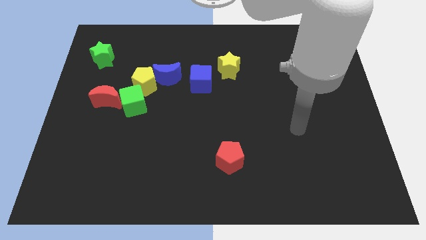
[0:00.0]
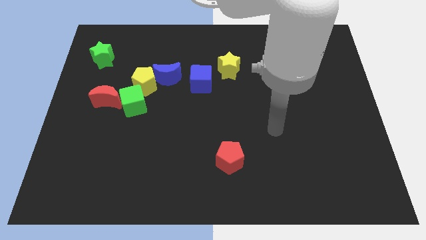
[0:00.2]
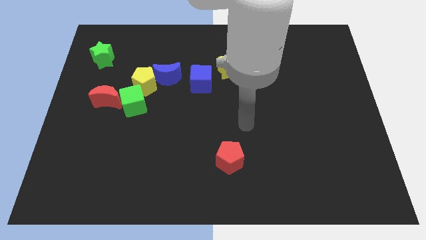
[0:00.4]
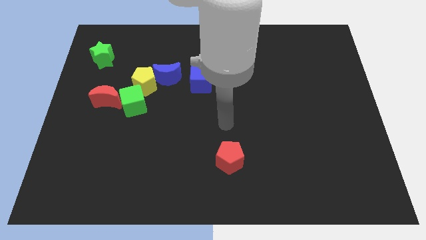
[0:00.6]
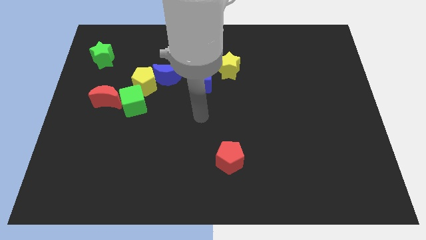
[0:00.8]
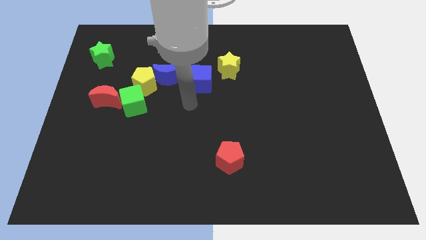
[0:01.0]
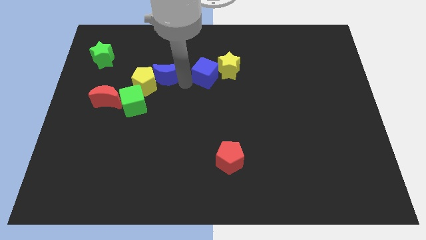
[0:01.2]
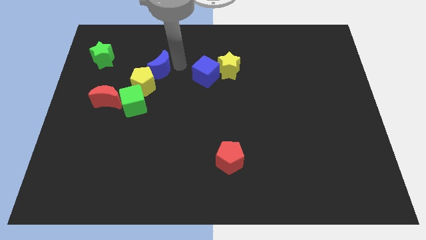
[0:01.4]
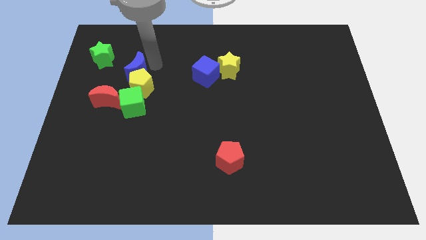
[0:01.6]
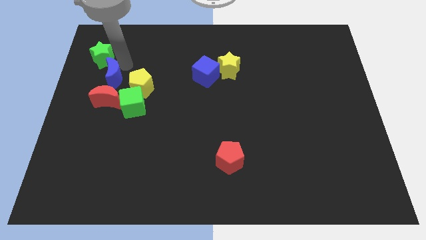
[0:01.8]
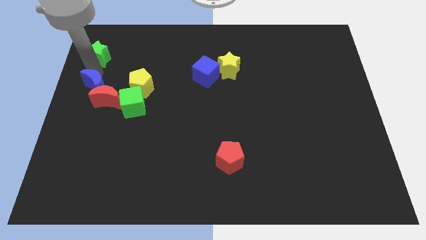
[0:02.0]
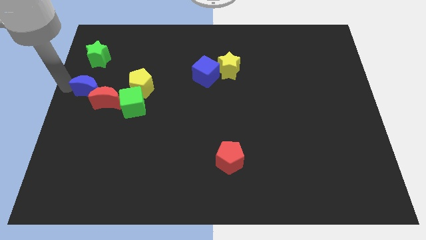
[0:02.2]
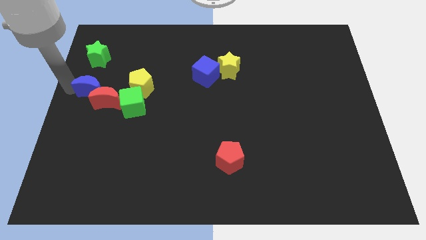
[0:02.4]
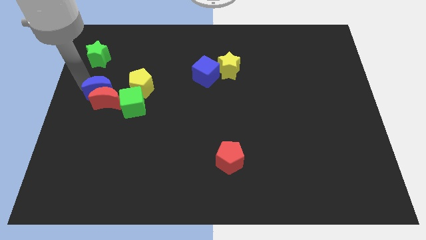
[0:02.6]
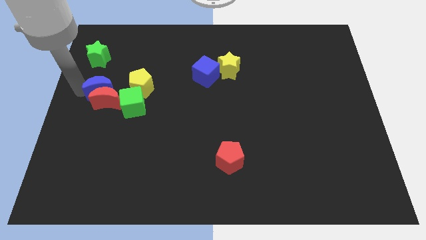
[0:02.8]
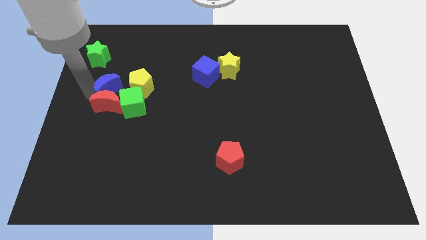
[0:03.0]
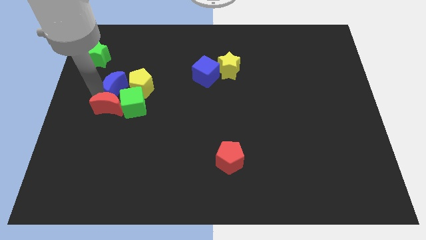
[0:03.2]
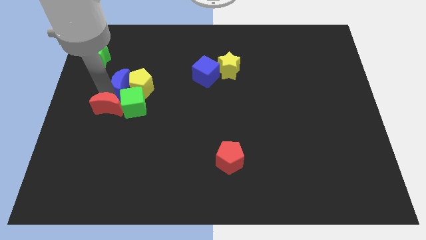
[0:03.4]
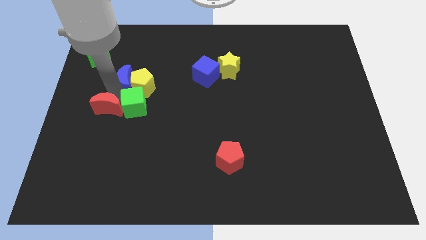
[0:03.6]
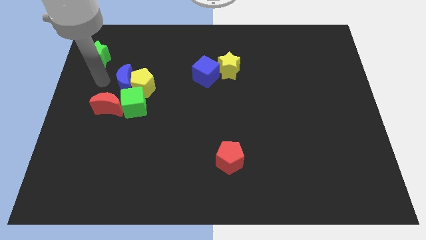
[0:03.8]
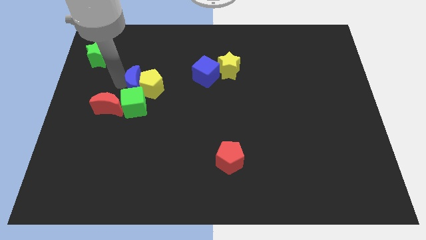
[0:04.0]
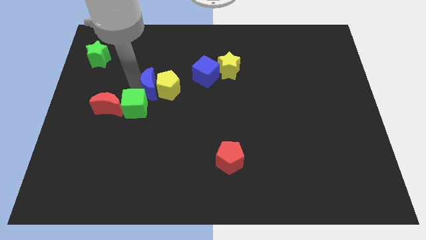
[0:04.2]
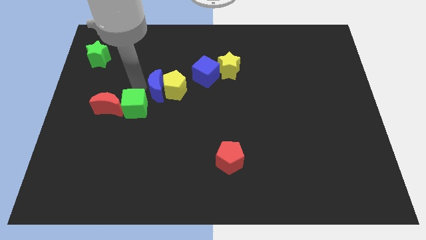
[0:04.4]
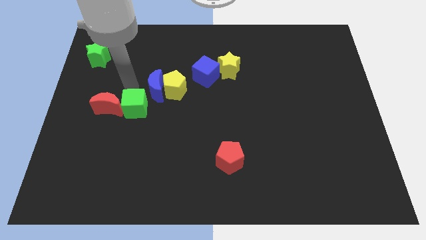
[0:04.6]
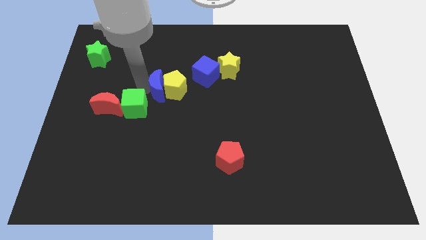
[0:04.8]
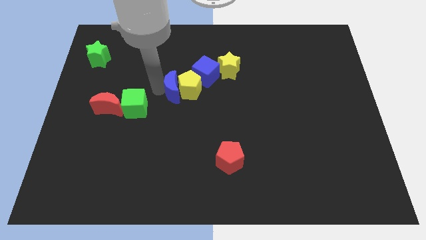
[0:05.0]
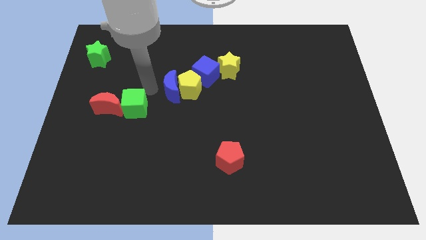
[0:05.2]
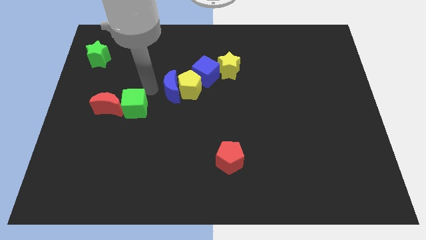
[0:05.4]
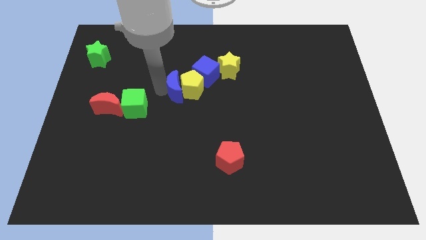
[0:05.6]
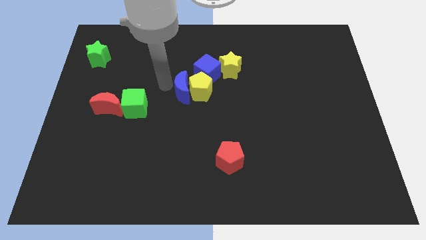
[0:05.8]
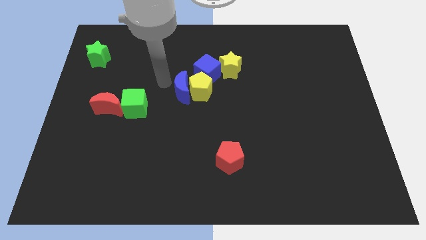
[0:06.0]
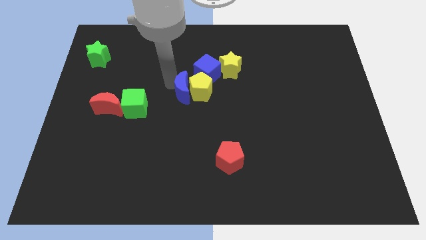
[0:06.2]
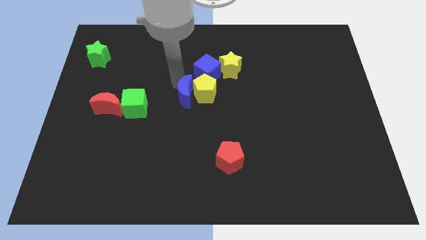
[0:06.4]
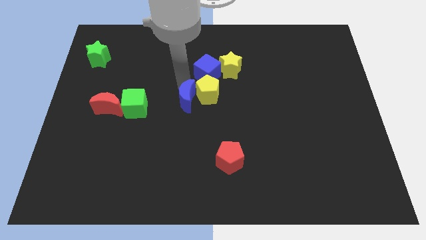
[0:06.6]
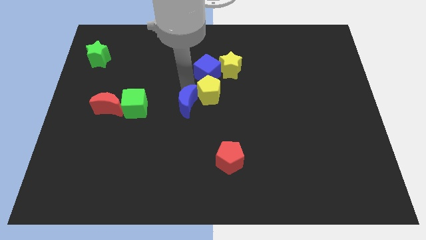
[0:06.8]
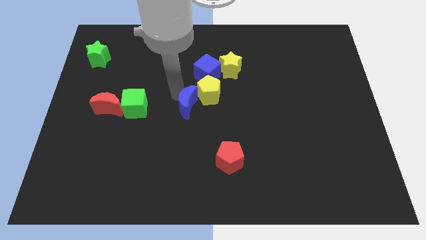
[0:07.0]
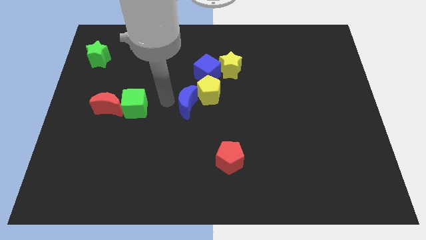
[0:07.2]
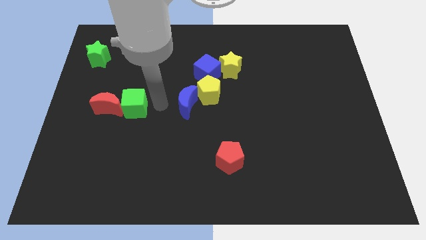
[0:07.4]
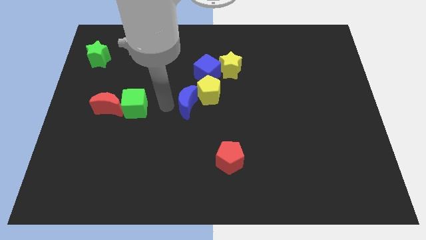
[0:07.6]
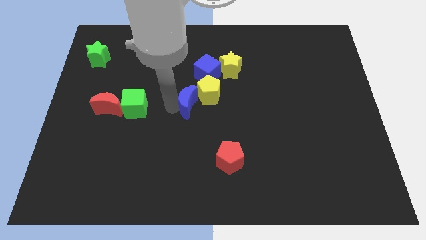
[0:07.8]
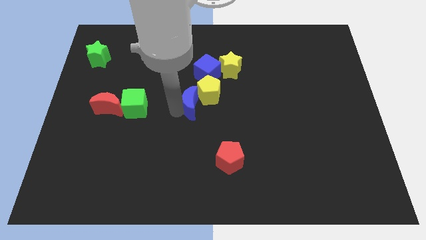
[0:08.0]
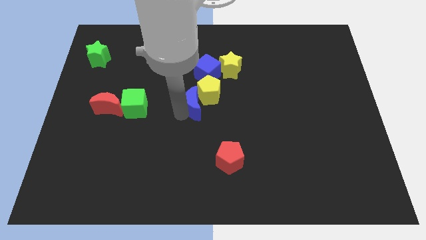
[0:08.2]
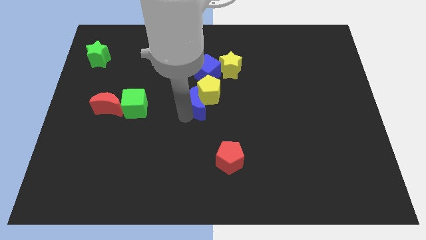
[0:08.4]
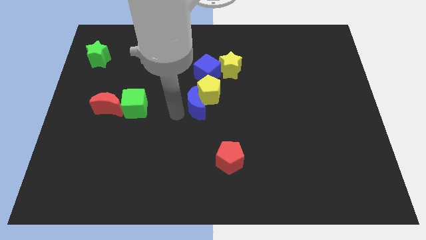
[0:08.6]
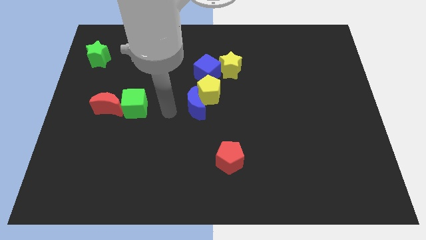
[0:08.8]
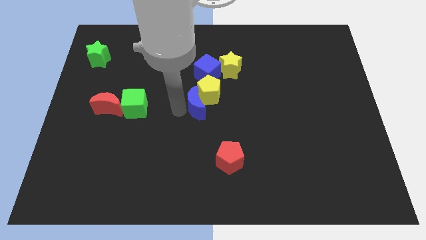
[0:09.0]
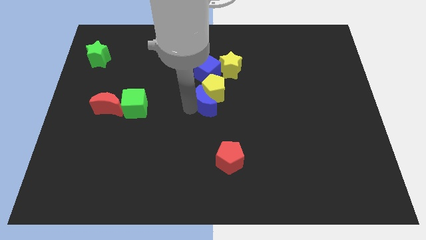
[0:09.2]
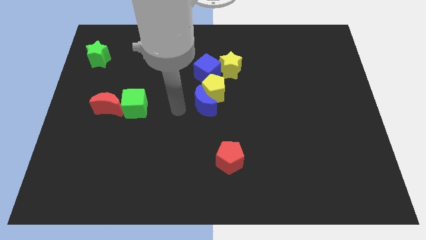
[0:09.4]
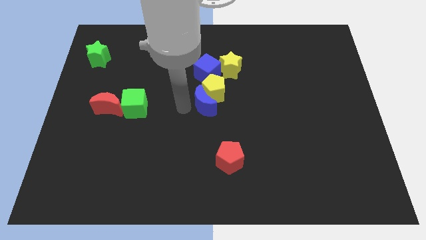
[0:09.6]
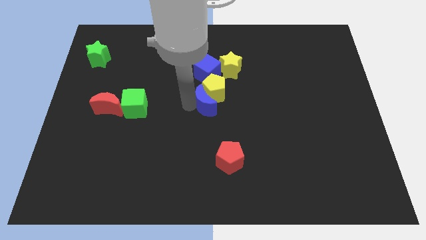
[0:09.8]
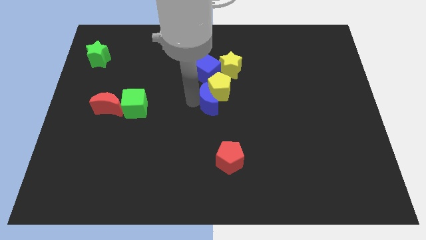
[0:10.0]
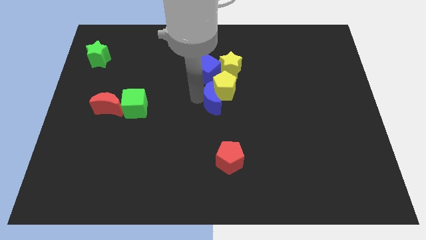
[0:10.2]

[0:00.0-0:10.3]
put the blue moon to the bottom of the yellow star

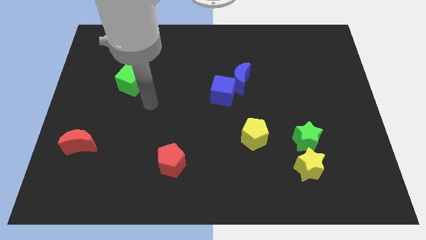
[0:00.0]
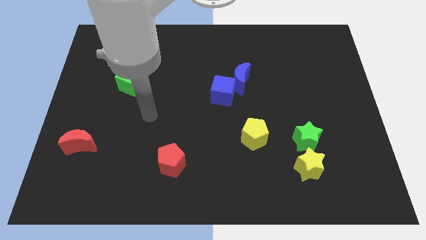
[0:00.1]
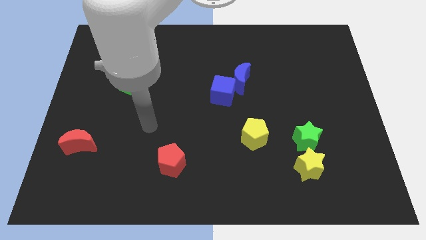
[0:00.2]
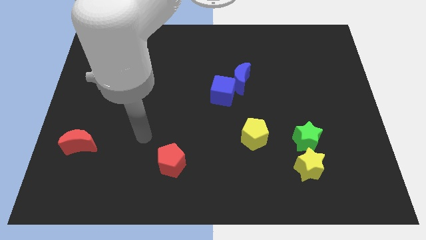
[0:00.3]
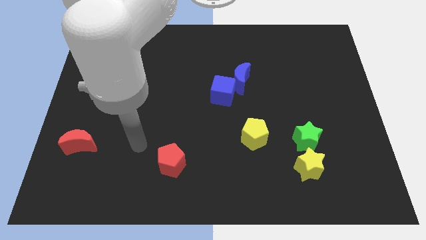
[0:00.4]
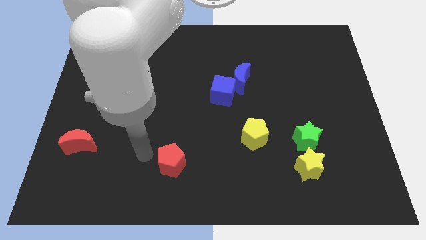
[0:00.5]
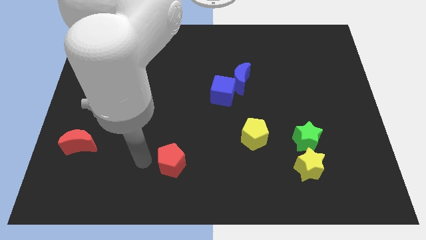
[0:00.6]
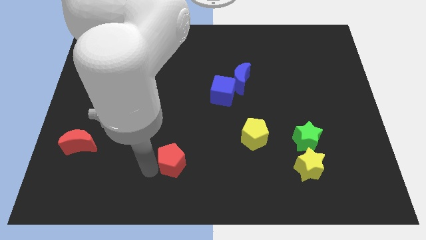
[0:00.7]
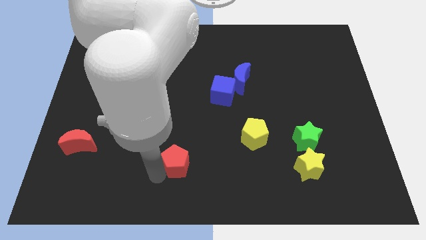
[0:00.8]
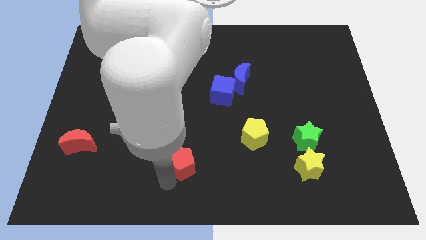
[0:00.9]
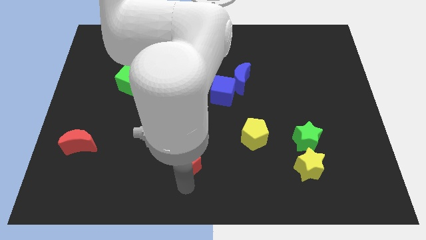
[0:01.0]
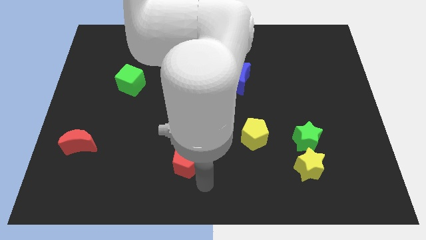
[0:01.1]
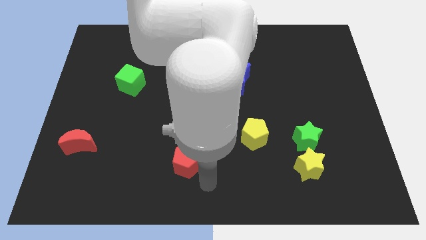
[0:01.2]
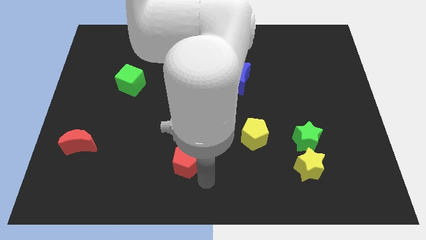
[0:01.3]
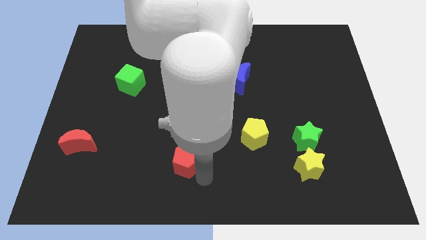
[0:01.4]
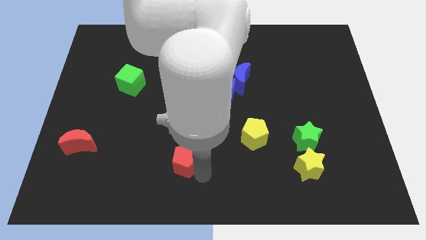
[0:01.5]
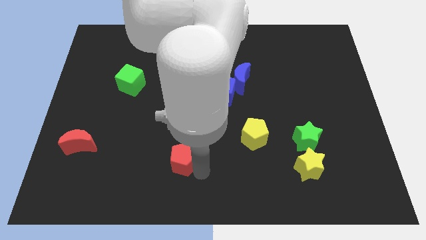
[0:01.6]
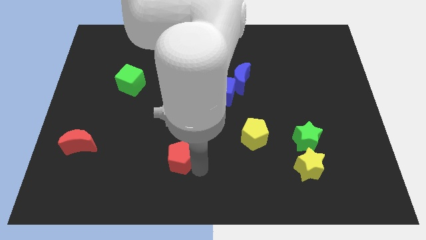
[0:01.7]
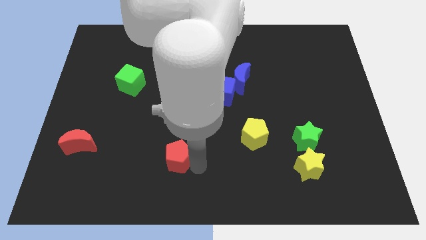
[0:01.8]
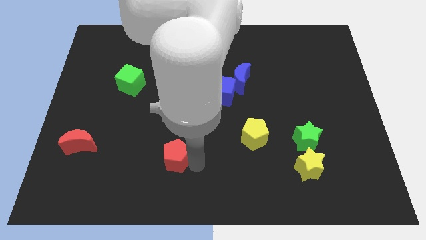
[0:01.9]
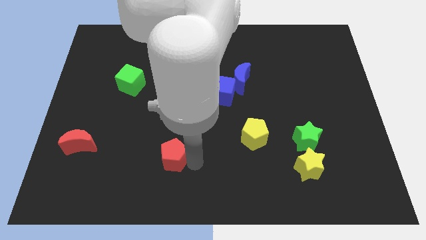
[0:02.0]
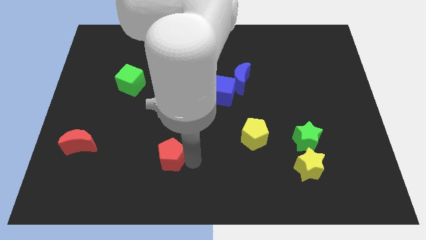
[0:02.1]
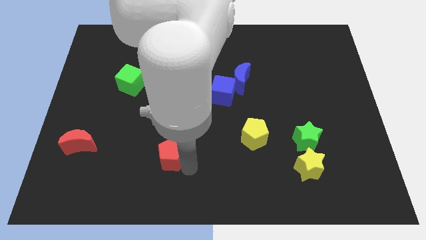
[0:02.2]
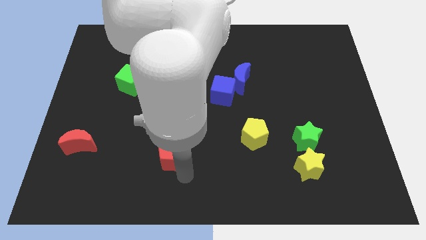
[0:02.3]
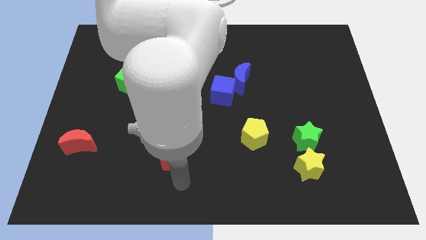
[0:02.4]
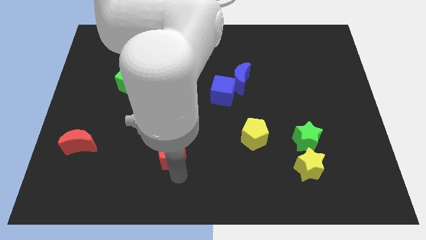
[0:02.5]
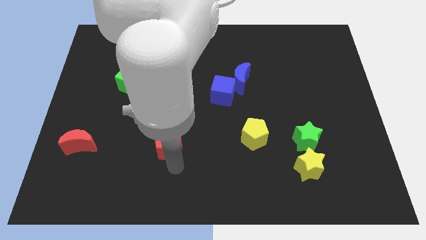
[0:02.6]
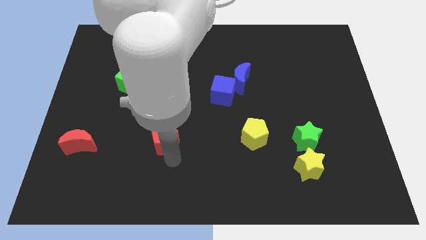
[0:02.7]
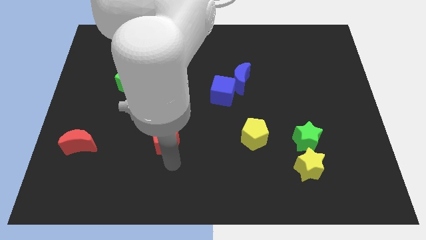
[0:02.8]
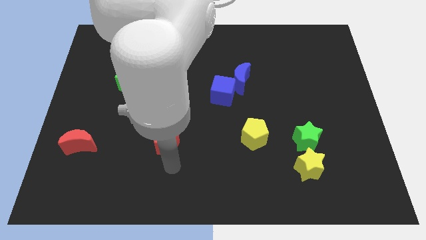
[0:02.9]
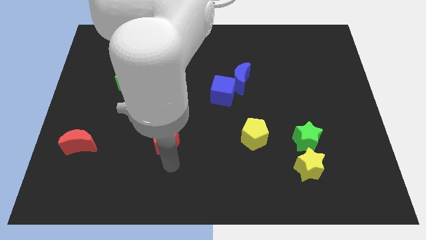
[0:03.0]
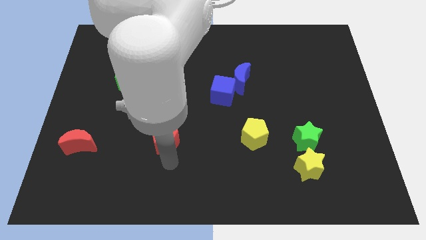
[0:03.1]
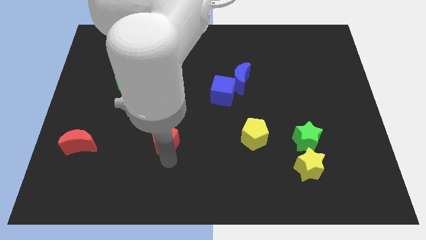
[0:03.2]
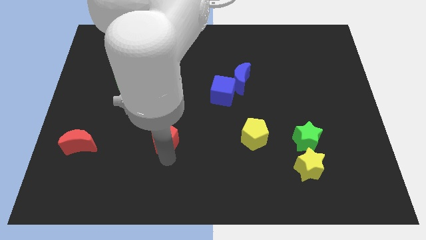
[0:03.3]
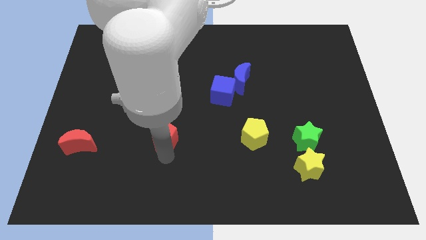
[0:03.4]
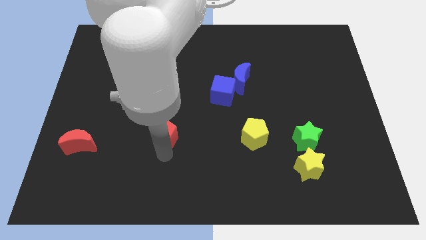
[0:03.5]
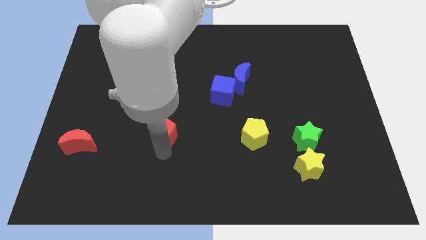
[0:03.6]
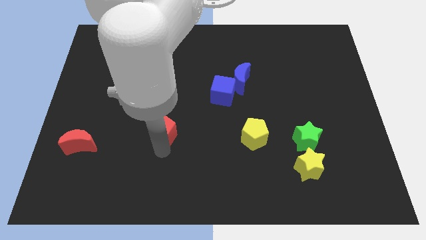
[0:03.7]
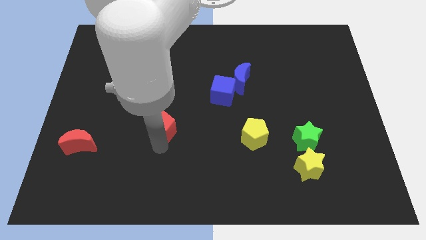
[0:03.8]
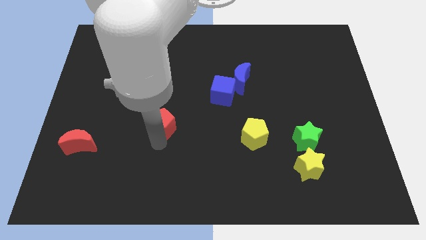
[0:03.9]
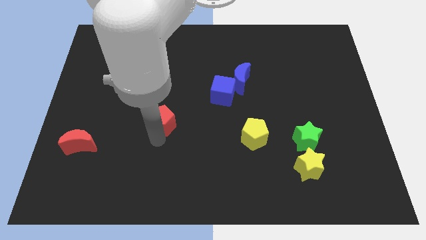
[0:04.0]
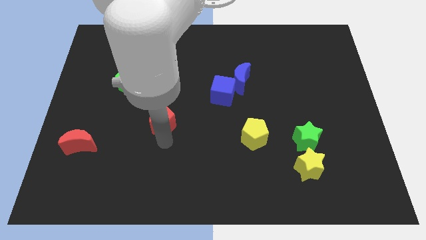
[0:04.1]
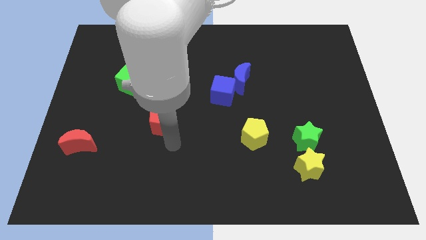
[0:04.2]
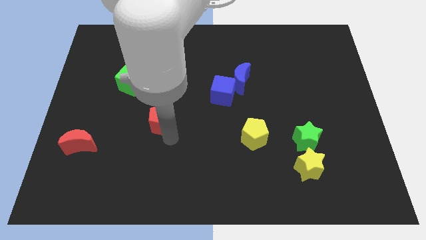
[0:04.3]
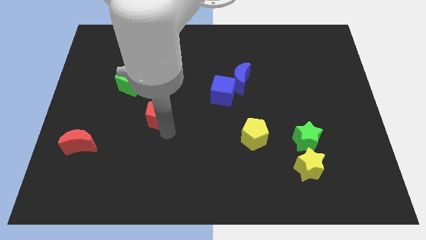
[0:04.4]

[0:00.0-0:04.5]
move the red pentagon to the bottom right of the green cube
